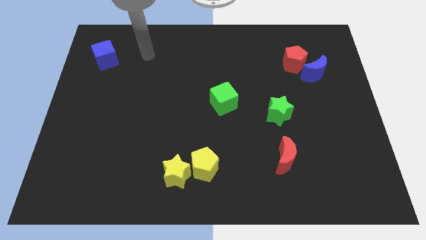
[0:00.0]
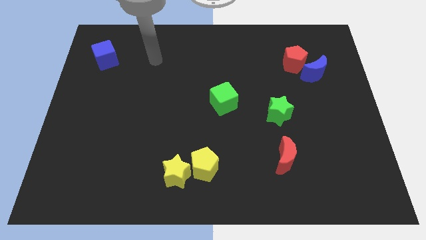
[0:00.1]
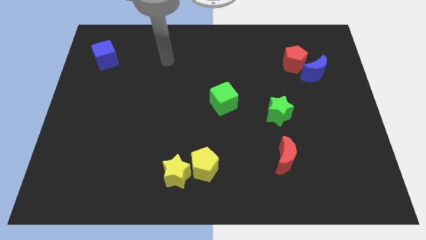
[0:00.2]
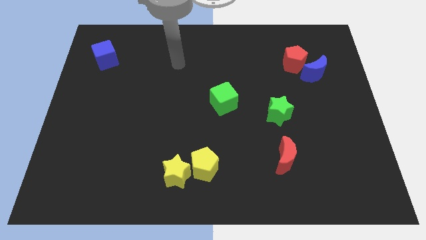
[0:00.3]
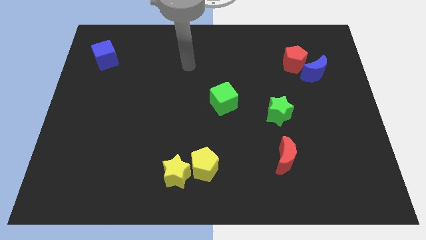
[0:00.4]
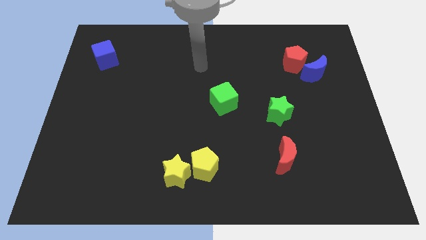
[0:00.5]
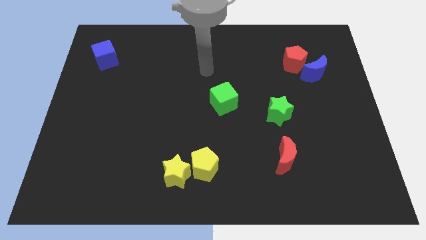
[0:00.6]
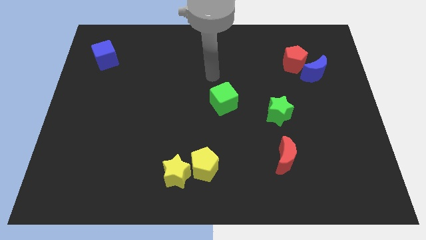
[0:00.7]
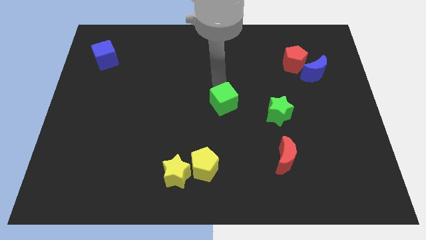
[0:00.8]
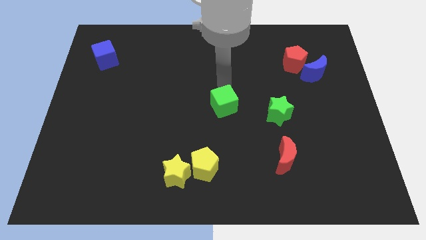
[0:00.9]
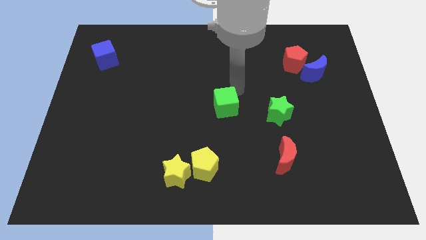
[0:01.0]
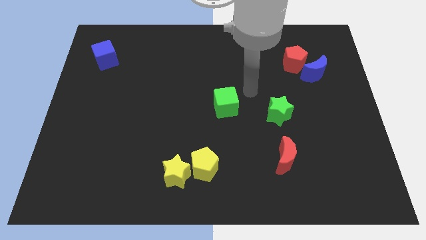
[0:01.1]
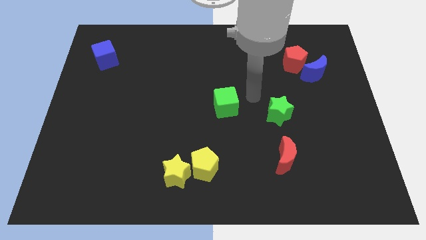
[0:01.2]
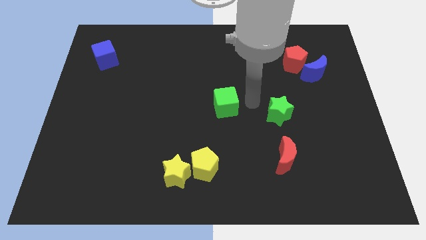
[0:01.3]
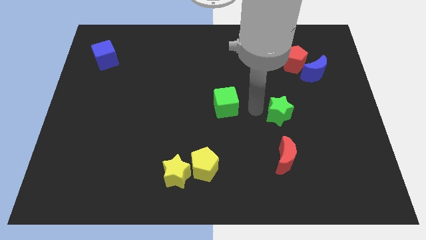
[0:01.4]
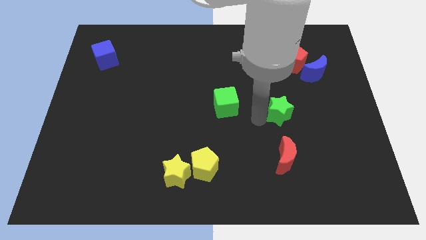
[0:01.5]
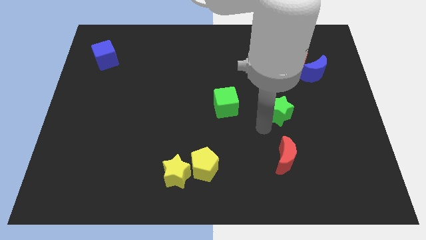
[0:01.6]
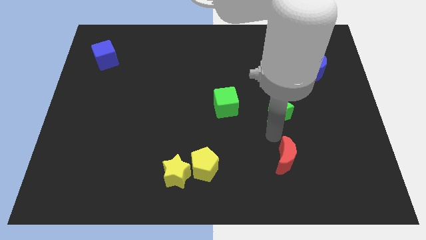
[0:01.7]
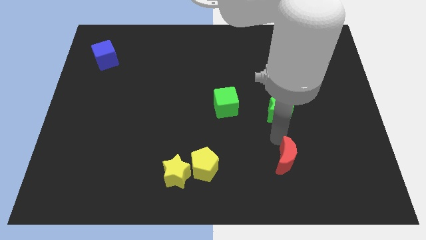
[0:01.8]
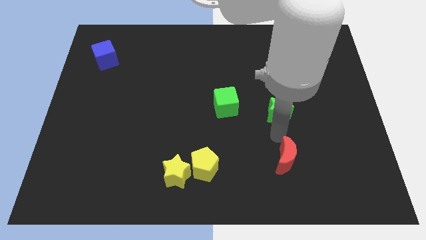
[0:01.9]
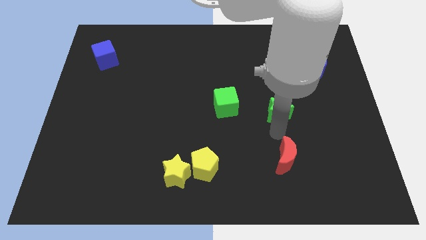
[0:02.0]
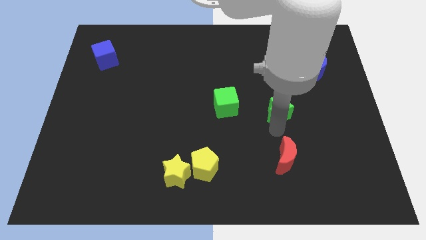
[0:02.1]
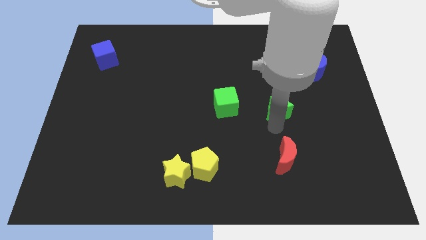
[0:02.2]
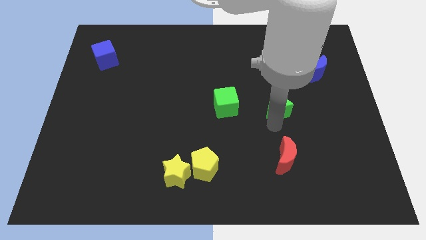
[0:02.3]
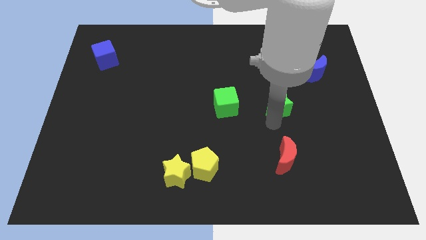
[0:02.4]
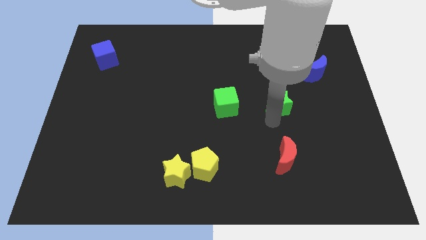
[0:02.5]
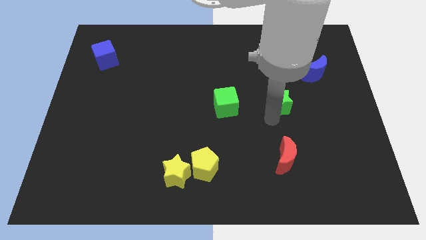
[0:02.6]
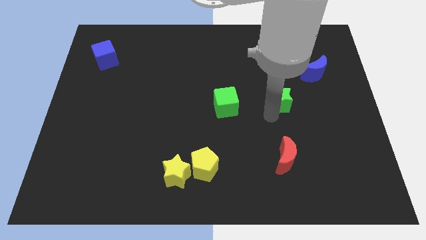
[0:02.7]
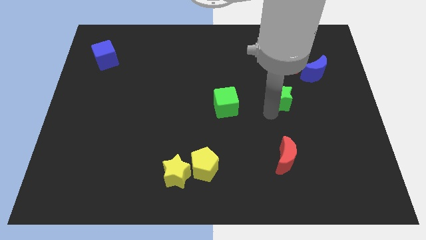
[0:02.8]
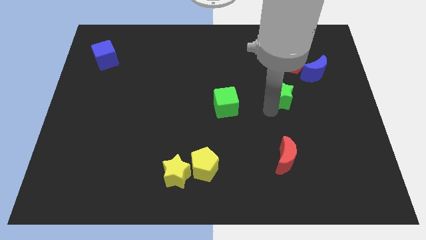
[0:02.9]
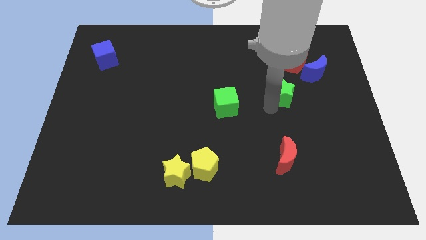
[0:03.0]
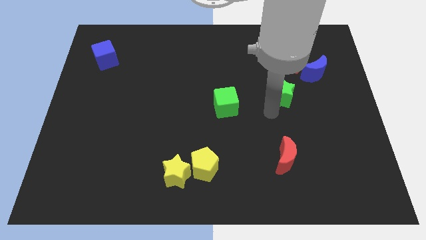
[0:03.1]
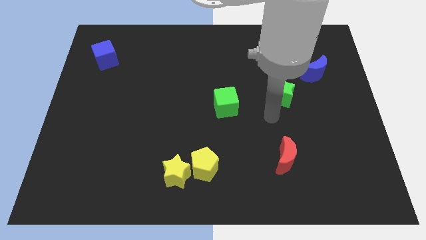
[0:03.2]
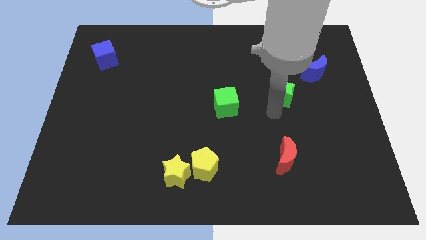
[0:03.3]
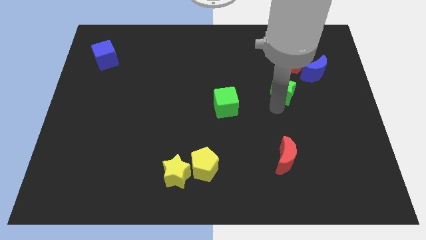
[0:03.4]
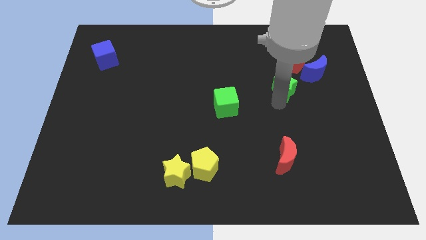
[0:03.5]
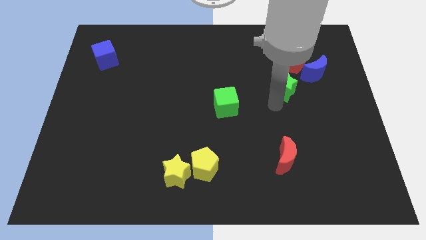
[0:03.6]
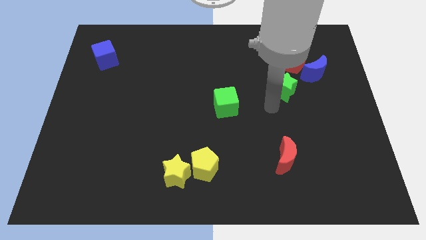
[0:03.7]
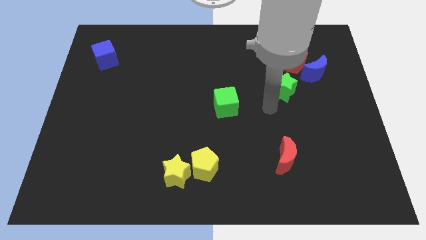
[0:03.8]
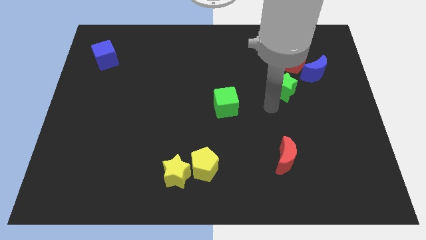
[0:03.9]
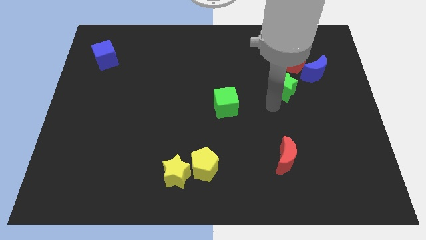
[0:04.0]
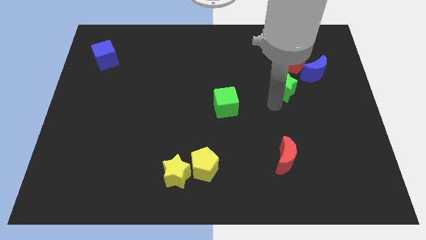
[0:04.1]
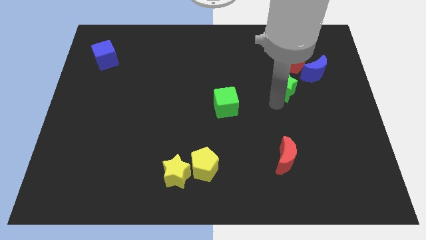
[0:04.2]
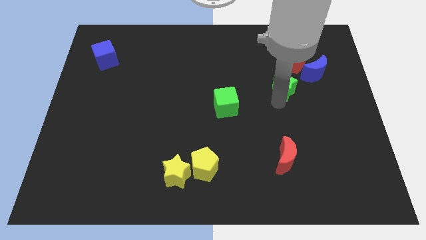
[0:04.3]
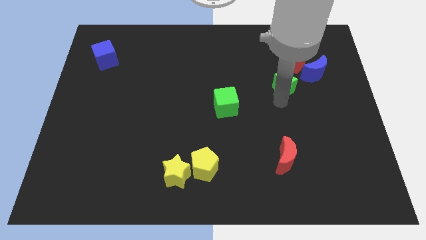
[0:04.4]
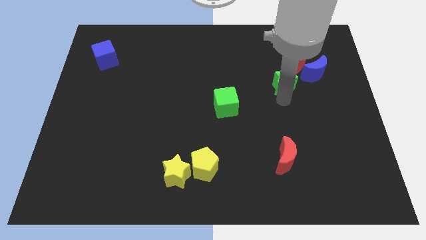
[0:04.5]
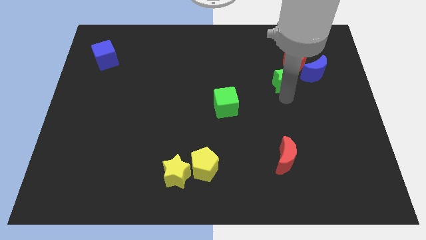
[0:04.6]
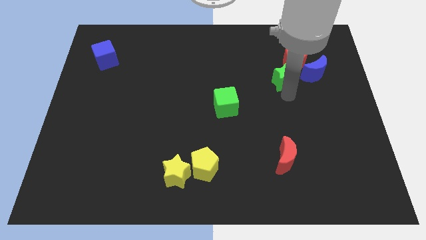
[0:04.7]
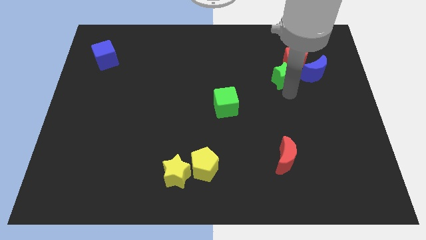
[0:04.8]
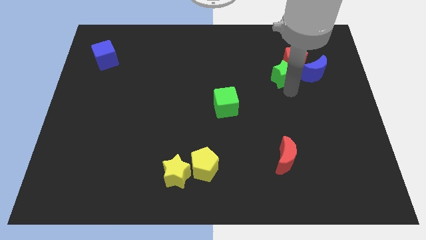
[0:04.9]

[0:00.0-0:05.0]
move the green star towards the red pentagon

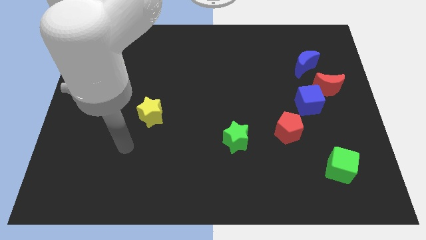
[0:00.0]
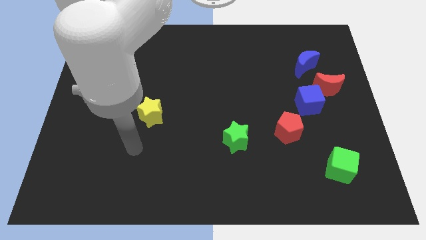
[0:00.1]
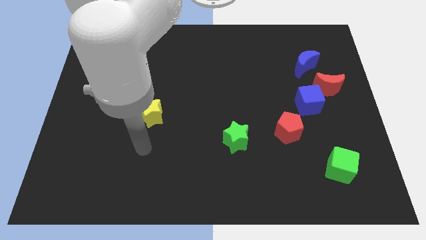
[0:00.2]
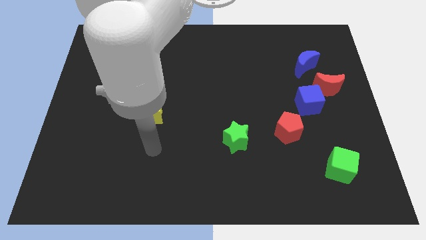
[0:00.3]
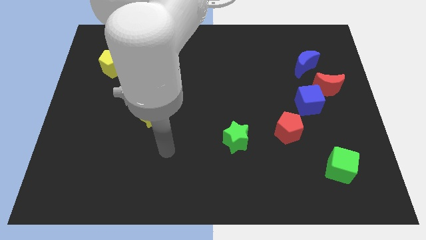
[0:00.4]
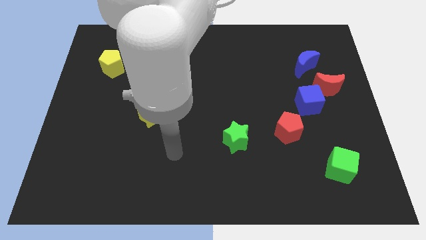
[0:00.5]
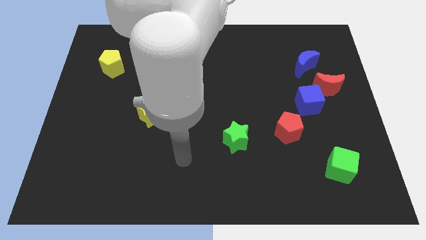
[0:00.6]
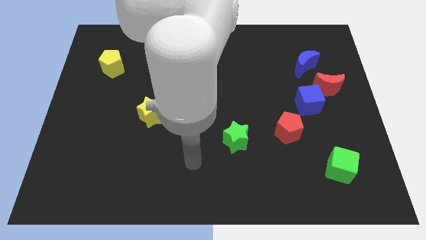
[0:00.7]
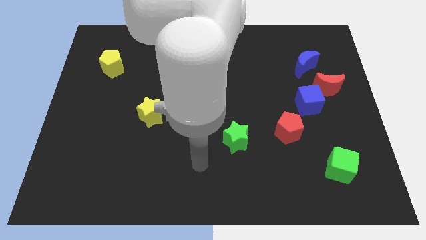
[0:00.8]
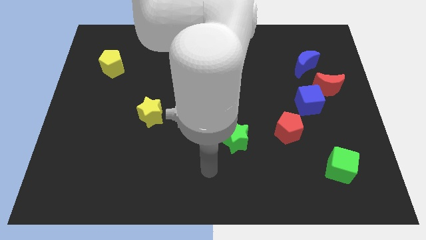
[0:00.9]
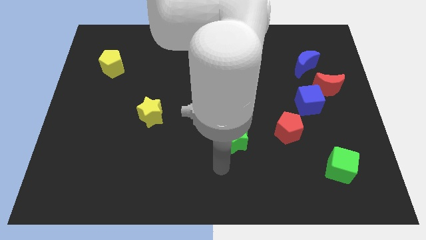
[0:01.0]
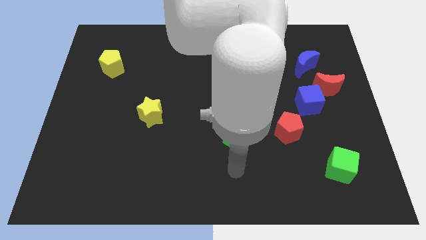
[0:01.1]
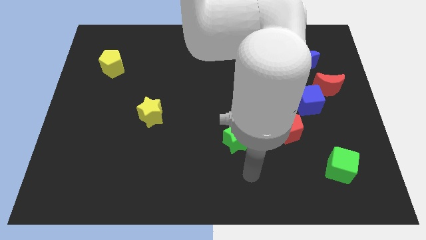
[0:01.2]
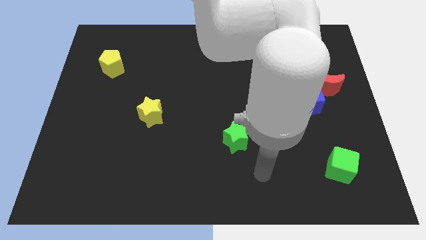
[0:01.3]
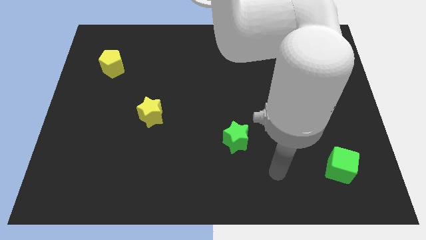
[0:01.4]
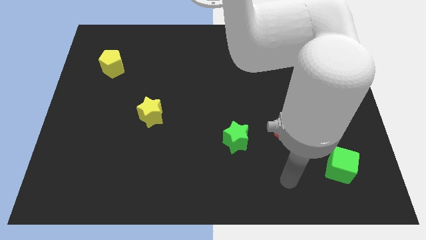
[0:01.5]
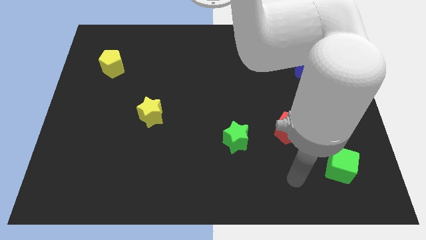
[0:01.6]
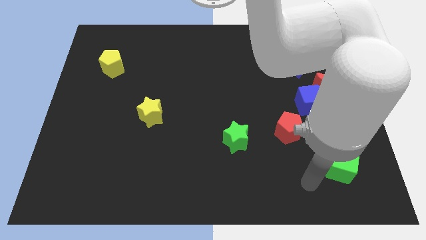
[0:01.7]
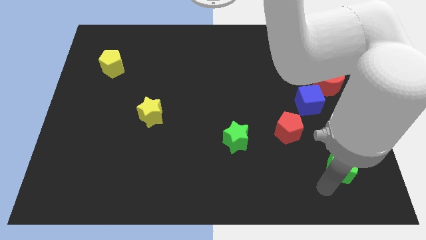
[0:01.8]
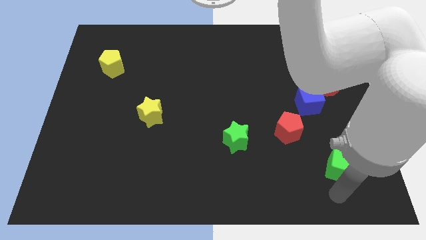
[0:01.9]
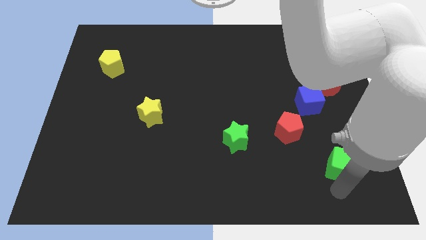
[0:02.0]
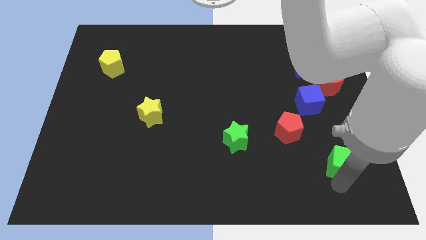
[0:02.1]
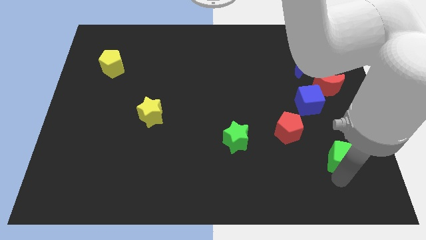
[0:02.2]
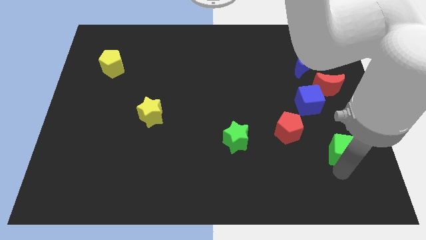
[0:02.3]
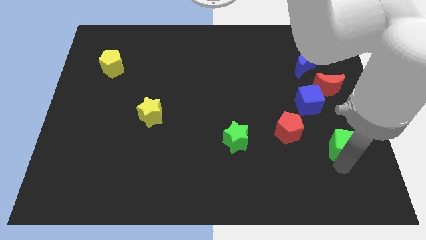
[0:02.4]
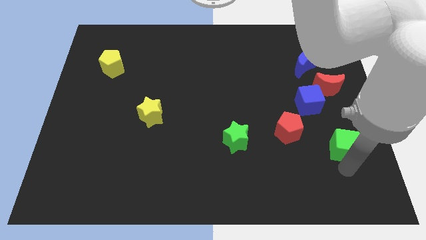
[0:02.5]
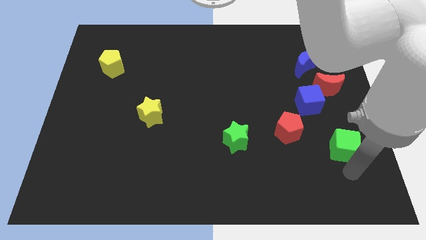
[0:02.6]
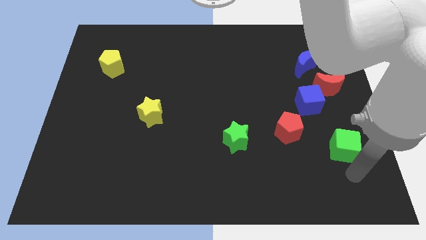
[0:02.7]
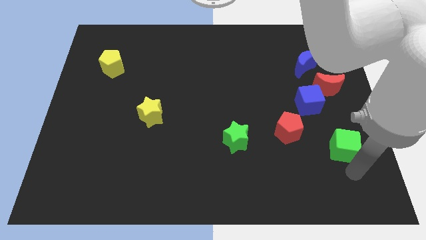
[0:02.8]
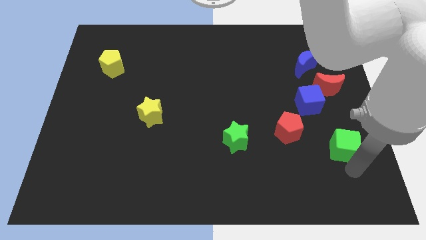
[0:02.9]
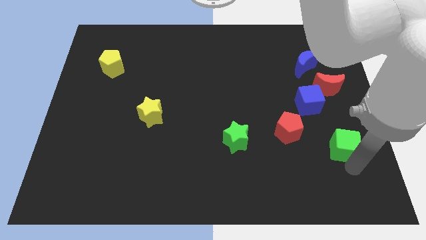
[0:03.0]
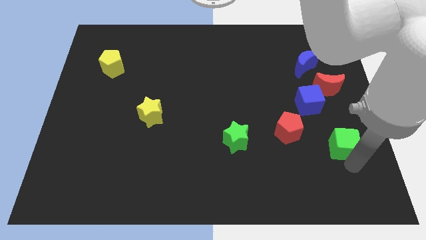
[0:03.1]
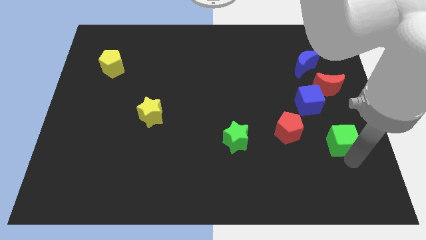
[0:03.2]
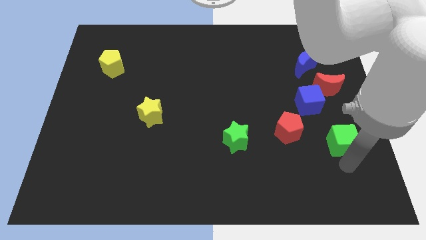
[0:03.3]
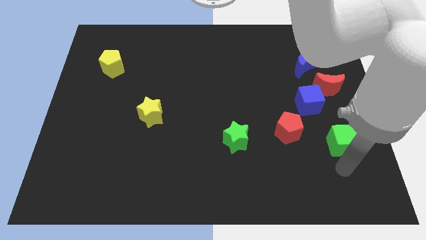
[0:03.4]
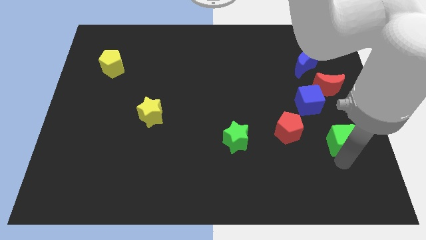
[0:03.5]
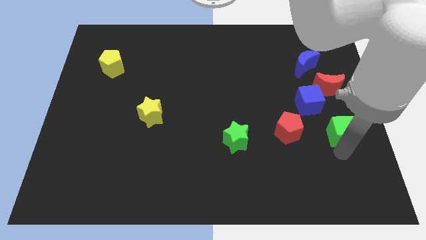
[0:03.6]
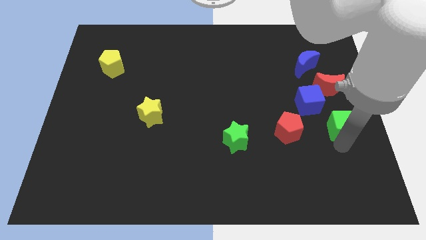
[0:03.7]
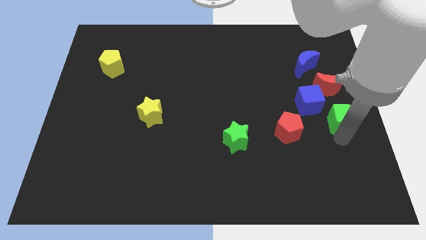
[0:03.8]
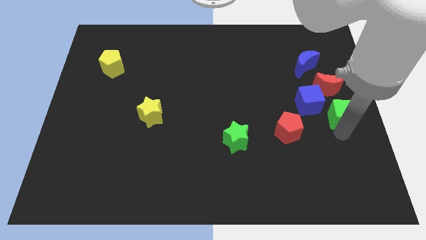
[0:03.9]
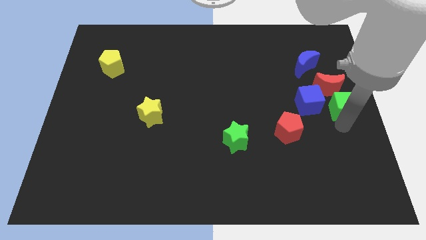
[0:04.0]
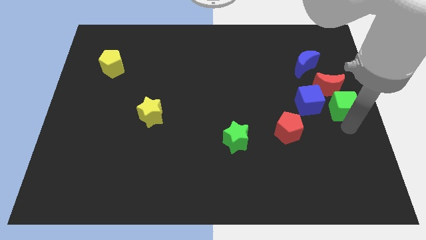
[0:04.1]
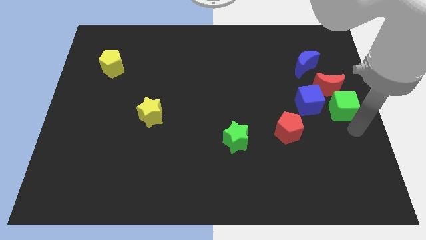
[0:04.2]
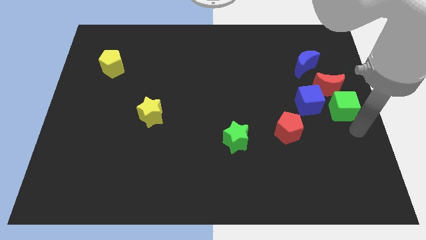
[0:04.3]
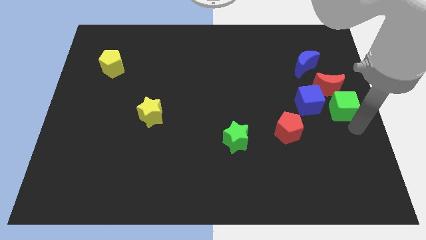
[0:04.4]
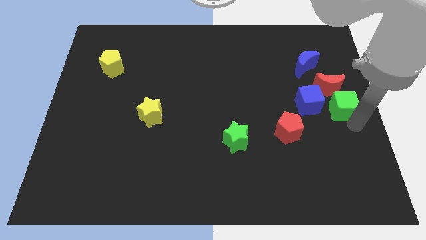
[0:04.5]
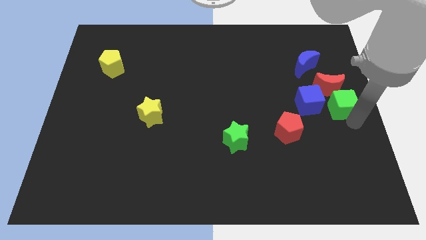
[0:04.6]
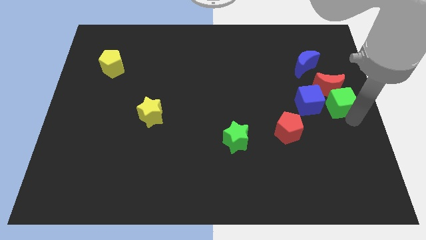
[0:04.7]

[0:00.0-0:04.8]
slide the green cube to the red moon
